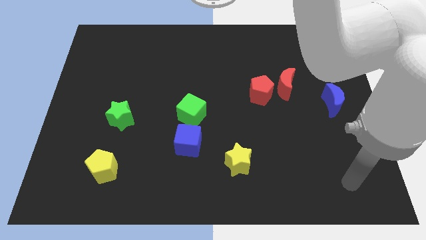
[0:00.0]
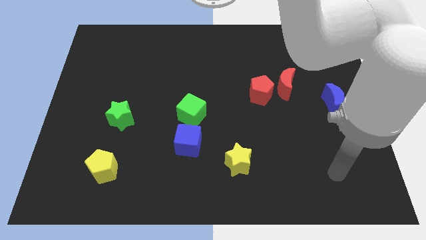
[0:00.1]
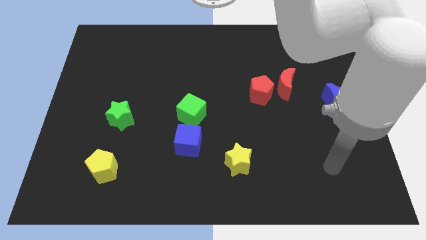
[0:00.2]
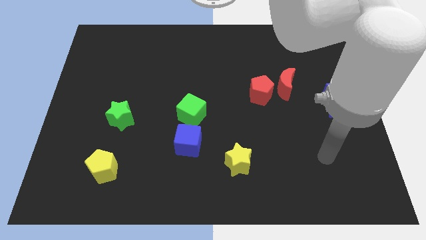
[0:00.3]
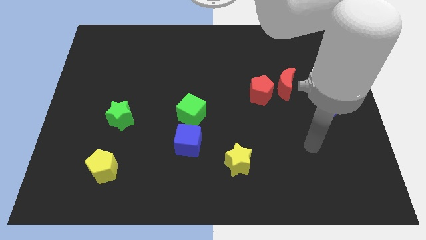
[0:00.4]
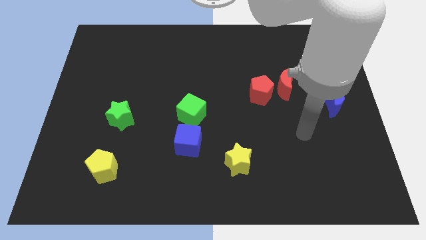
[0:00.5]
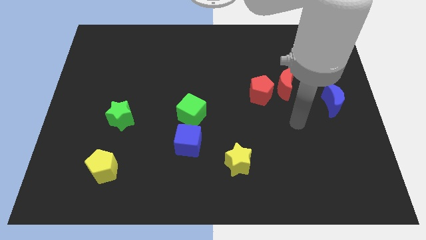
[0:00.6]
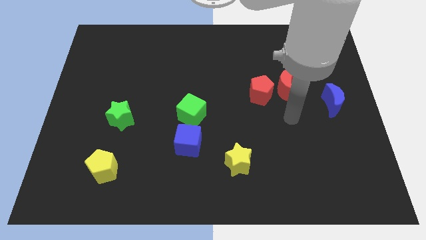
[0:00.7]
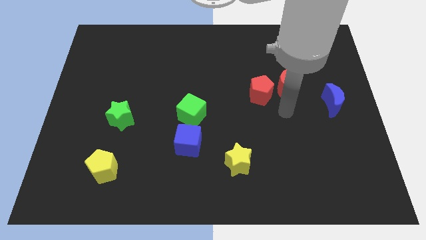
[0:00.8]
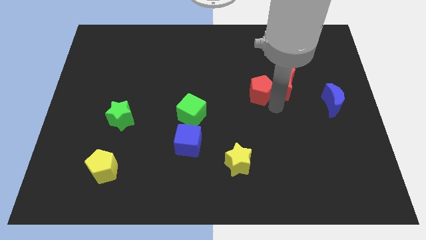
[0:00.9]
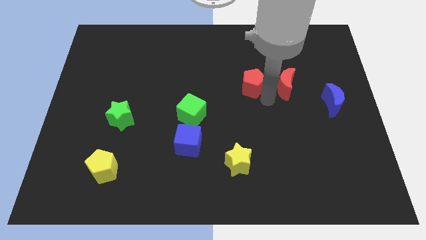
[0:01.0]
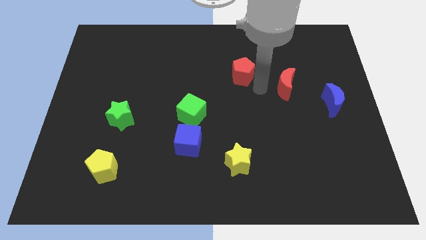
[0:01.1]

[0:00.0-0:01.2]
move the red moon away from the red pentagon

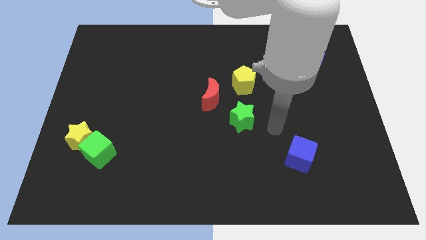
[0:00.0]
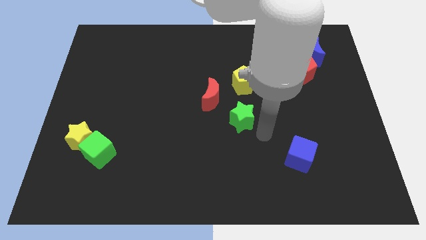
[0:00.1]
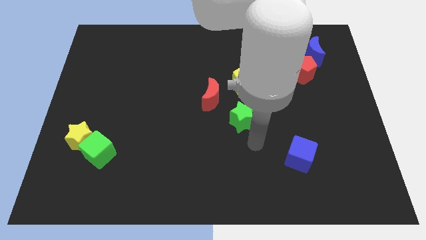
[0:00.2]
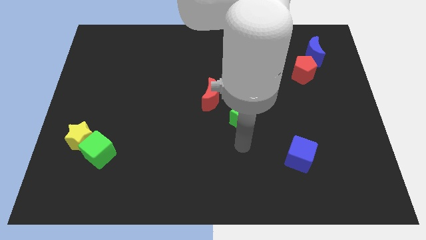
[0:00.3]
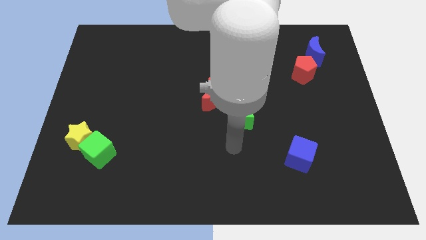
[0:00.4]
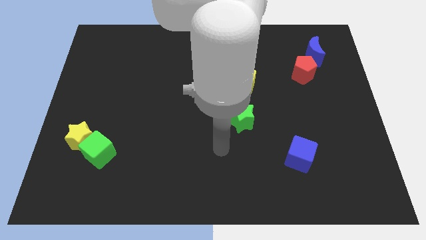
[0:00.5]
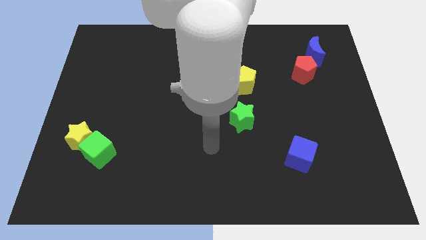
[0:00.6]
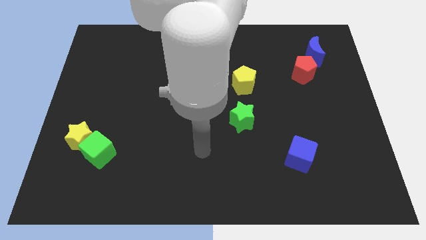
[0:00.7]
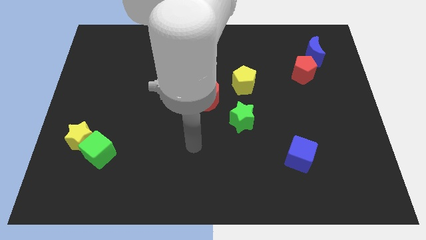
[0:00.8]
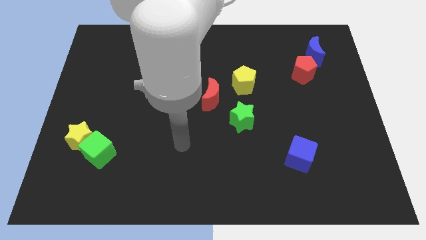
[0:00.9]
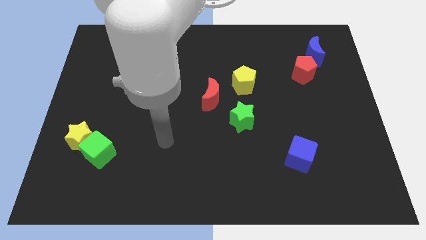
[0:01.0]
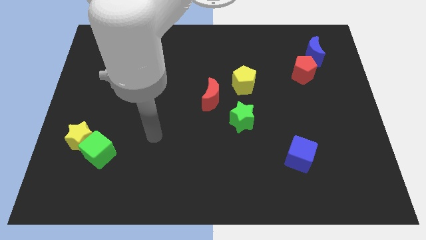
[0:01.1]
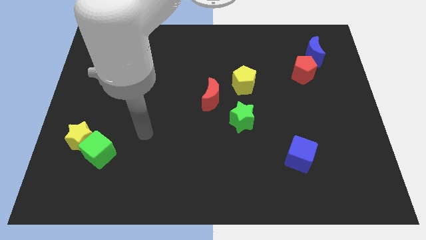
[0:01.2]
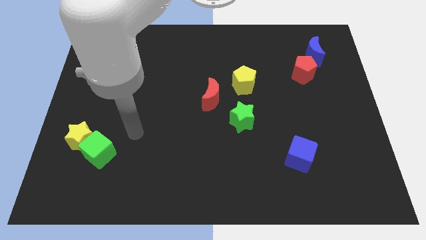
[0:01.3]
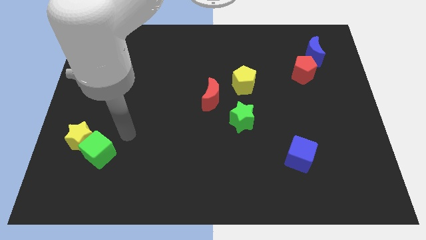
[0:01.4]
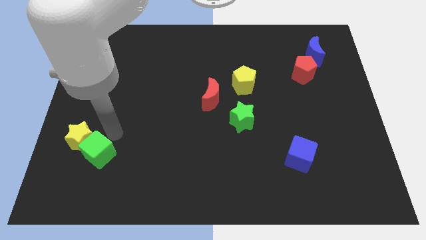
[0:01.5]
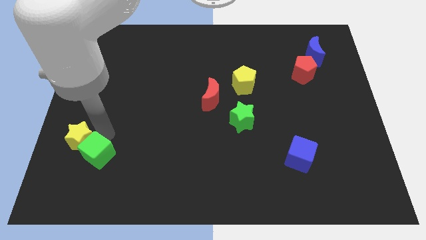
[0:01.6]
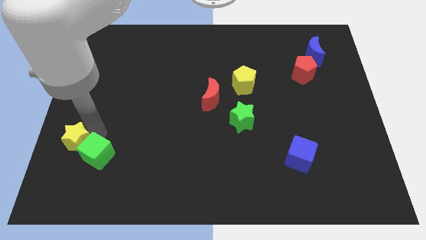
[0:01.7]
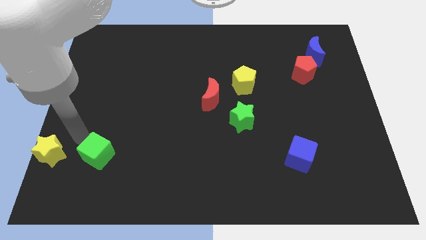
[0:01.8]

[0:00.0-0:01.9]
move the green cube away from the yellow star

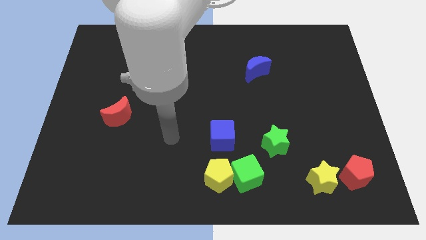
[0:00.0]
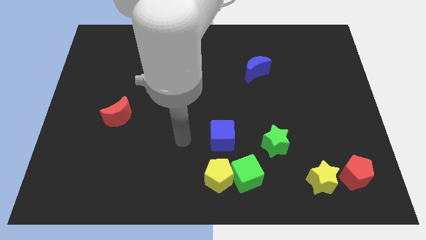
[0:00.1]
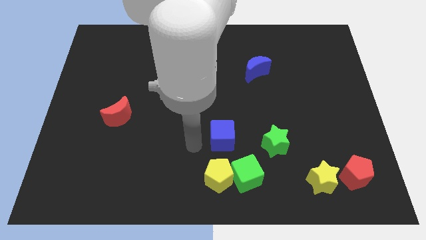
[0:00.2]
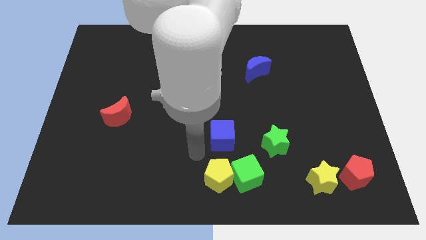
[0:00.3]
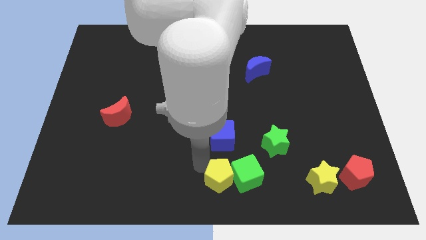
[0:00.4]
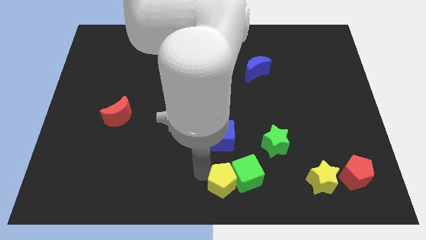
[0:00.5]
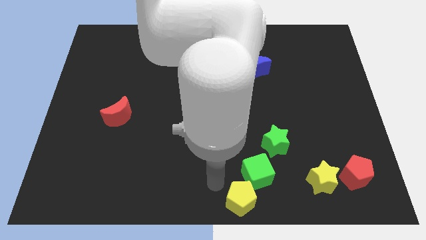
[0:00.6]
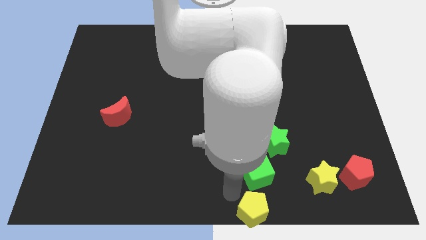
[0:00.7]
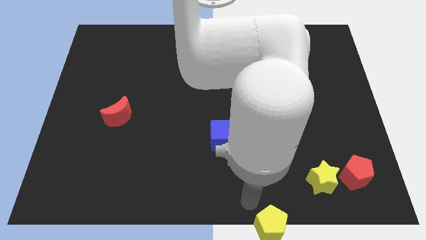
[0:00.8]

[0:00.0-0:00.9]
separate the green cube from the yellow pentagon

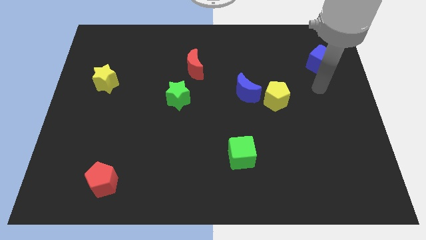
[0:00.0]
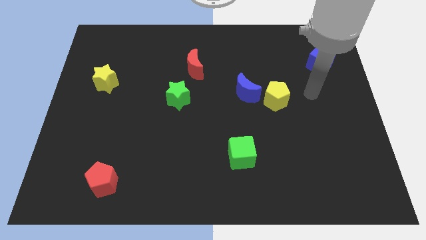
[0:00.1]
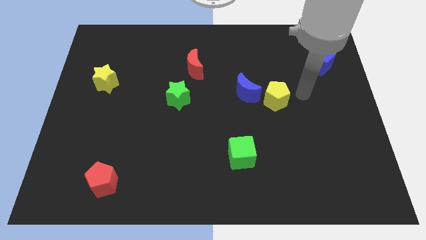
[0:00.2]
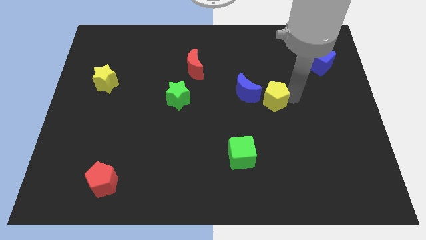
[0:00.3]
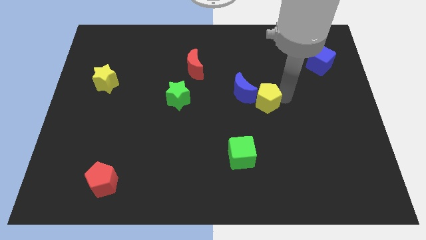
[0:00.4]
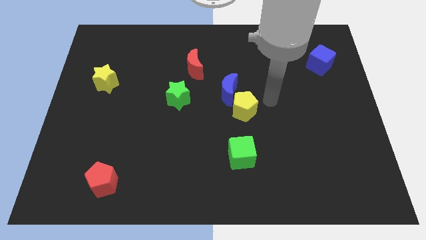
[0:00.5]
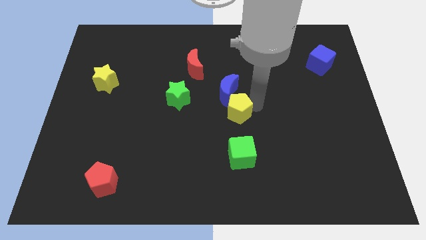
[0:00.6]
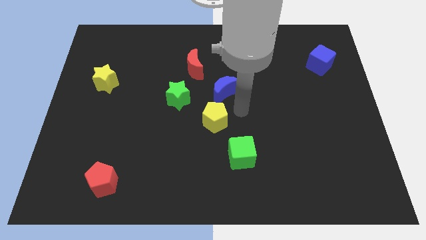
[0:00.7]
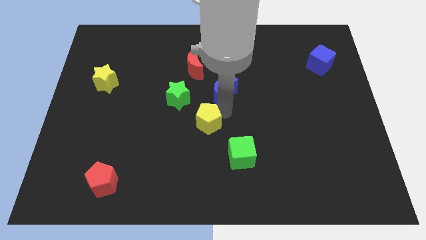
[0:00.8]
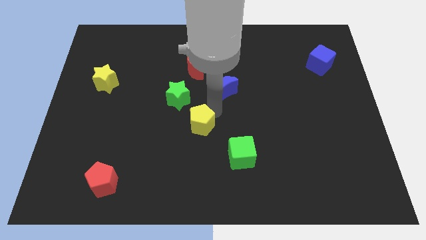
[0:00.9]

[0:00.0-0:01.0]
separate the blue moon from the yellow pentagon

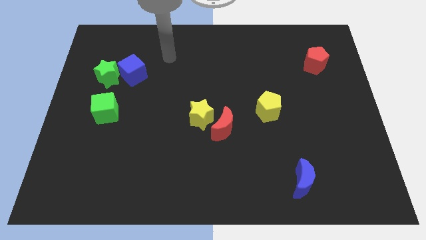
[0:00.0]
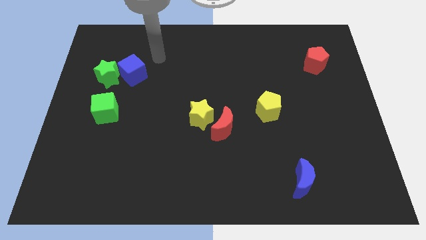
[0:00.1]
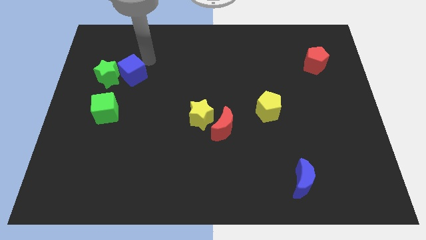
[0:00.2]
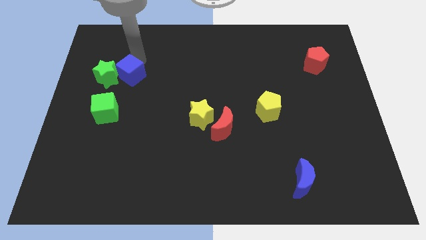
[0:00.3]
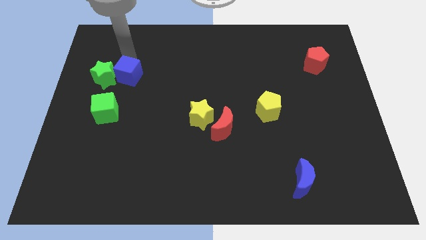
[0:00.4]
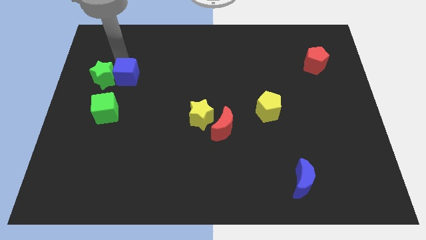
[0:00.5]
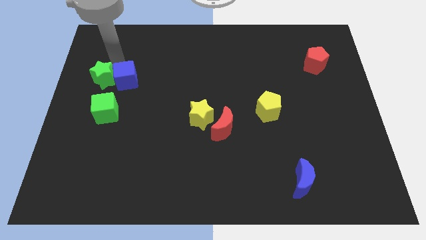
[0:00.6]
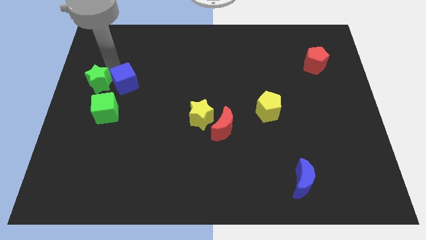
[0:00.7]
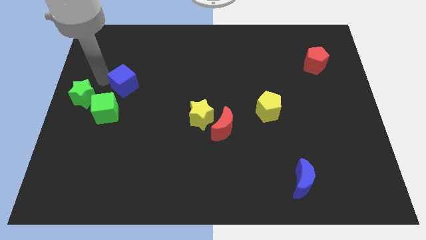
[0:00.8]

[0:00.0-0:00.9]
pull the blue cube apart from the green star

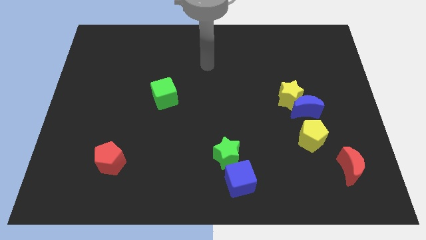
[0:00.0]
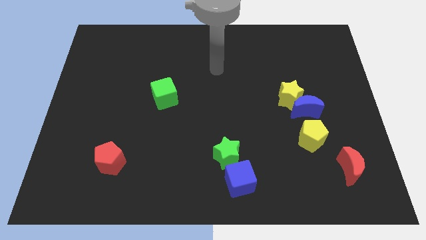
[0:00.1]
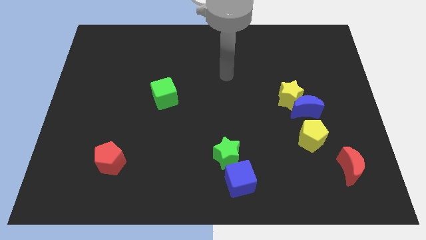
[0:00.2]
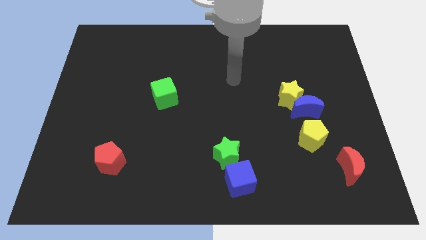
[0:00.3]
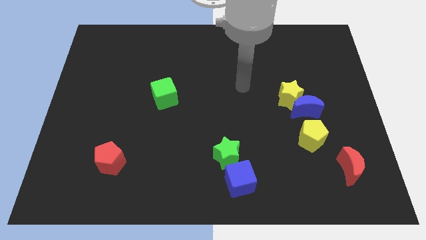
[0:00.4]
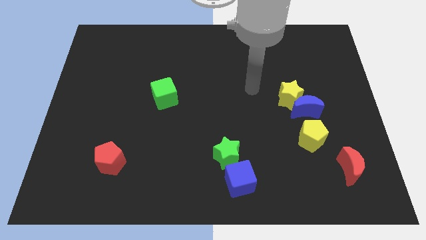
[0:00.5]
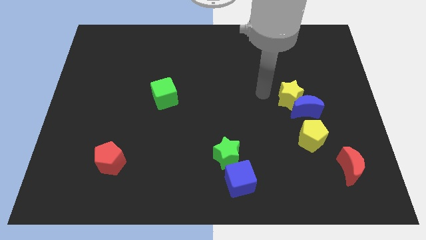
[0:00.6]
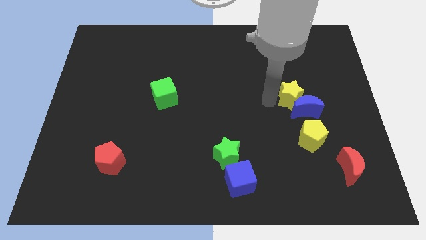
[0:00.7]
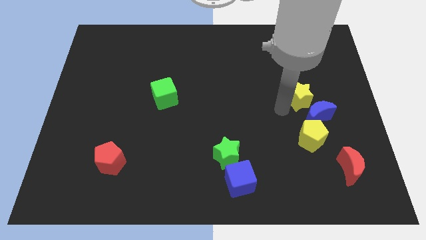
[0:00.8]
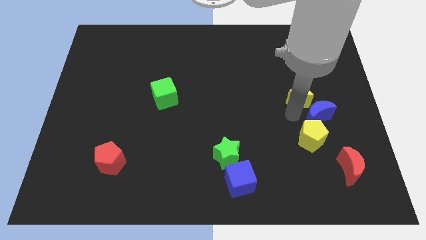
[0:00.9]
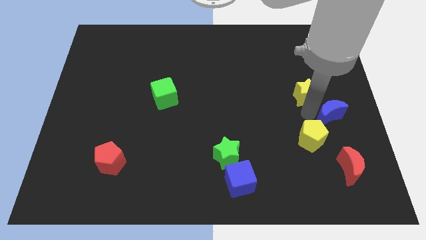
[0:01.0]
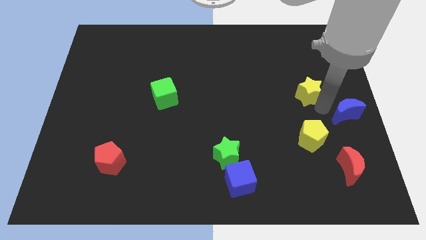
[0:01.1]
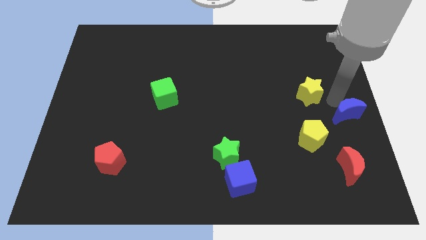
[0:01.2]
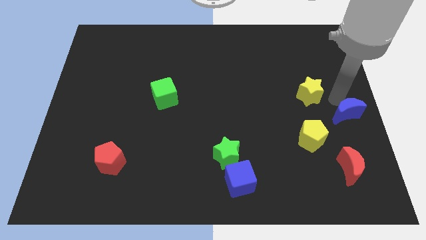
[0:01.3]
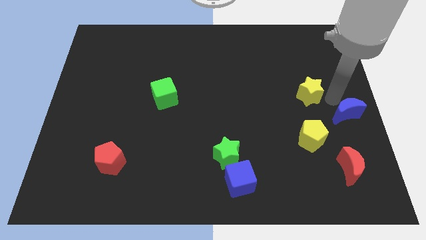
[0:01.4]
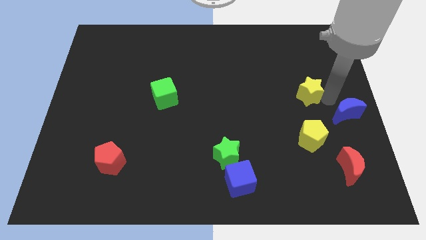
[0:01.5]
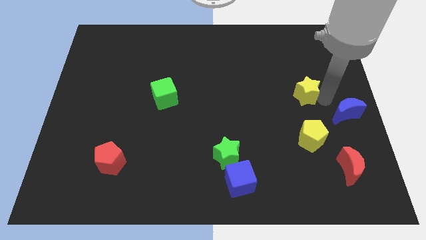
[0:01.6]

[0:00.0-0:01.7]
move the yellow star away from the blue moon

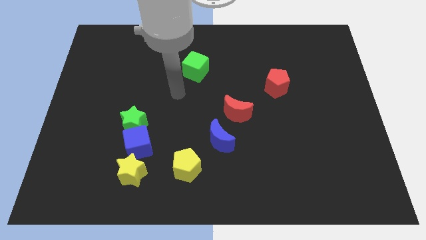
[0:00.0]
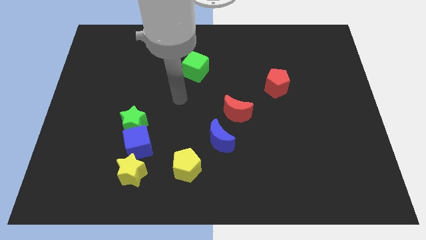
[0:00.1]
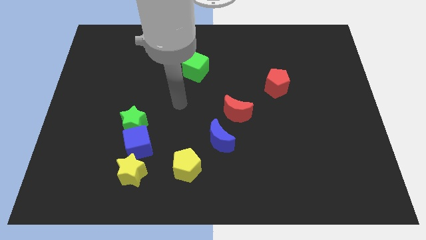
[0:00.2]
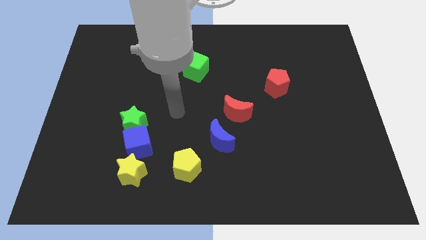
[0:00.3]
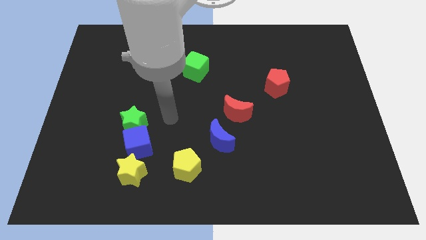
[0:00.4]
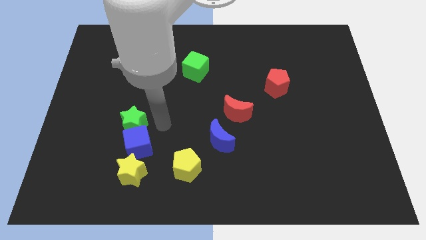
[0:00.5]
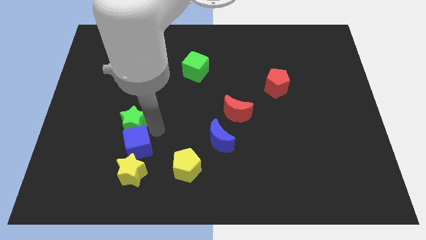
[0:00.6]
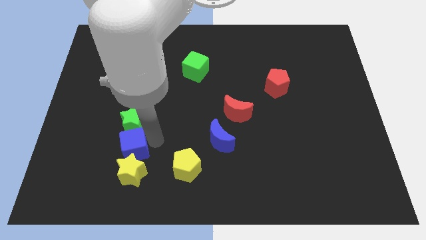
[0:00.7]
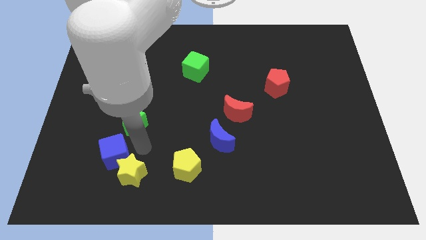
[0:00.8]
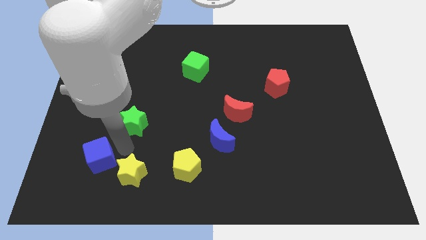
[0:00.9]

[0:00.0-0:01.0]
separate the green star from the blue cube

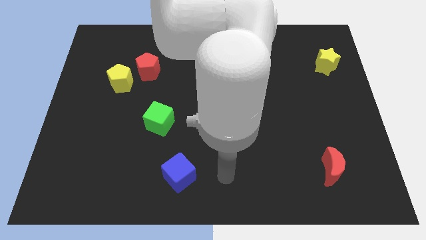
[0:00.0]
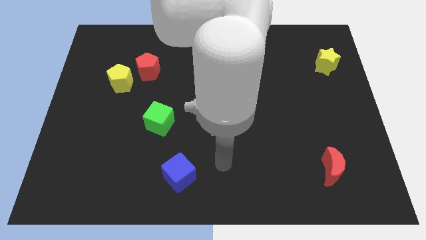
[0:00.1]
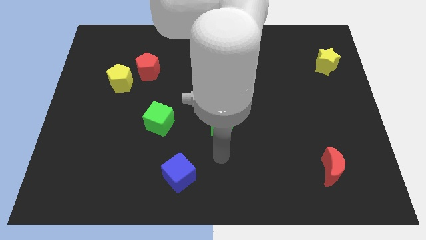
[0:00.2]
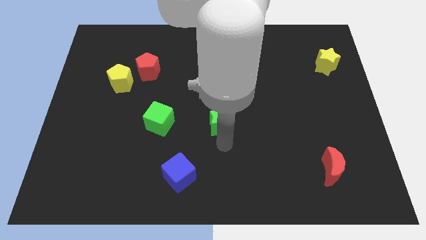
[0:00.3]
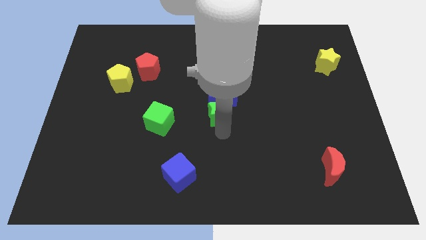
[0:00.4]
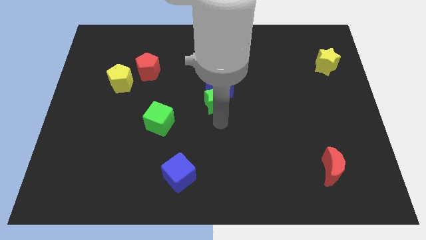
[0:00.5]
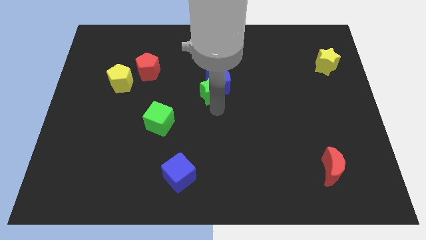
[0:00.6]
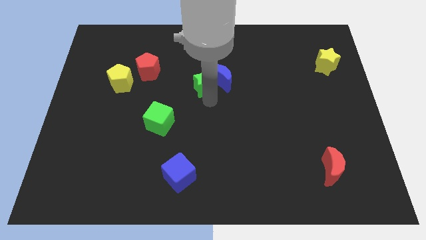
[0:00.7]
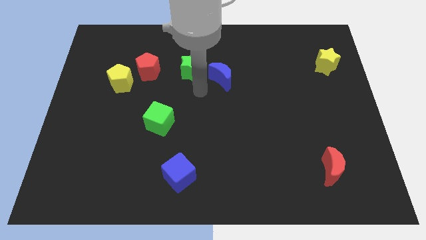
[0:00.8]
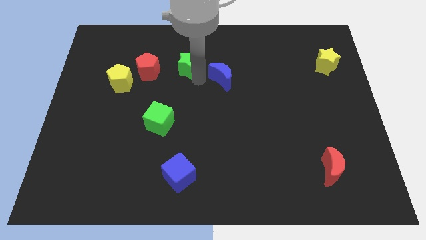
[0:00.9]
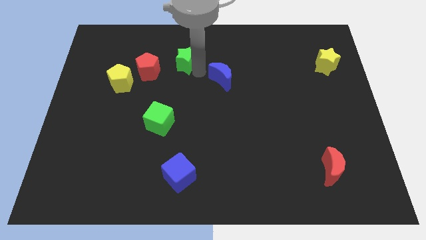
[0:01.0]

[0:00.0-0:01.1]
separate the blue moon from the green star
